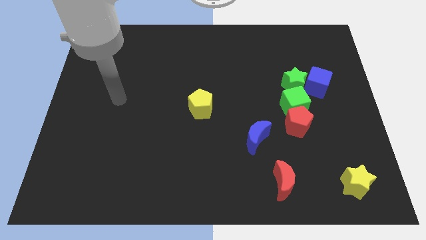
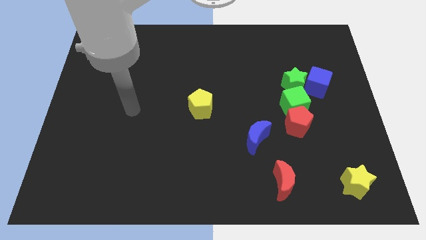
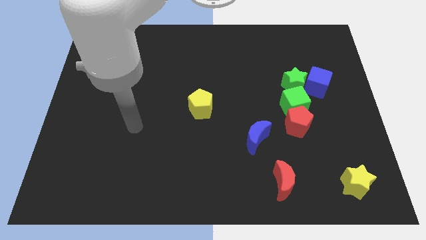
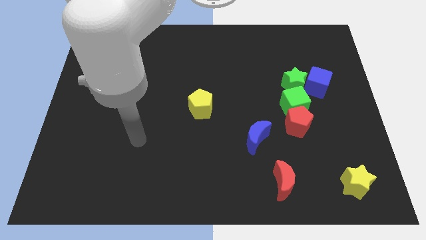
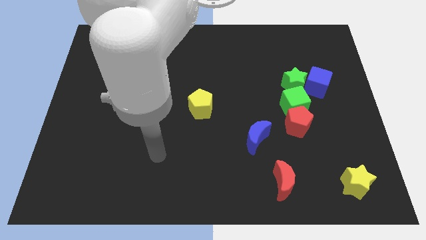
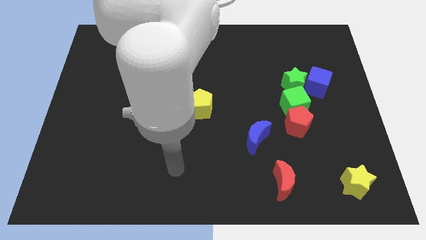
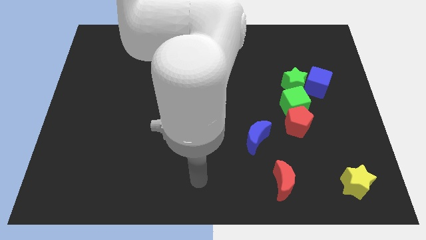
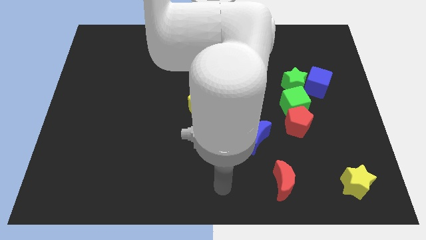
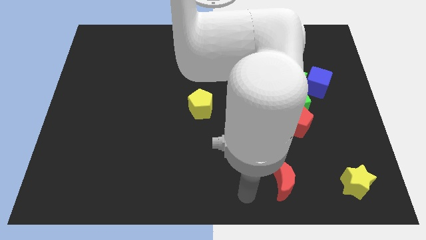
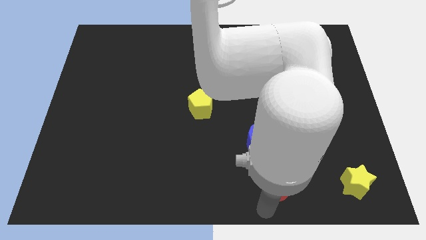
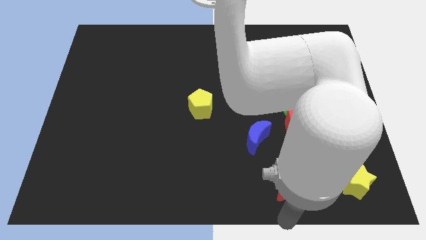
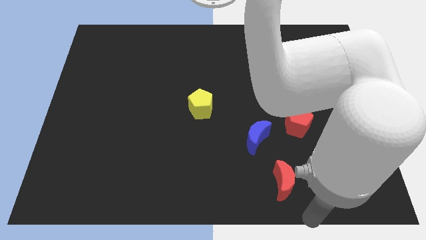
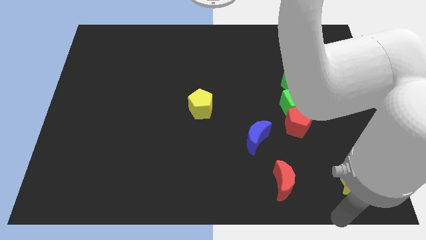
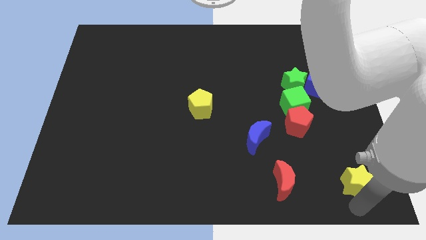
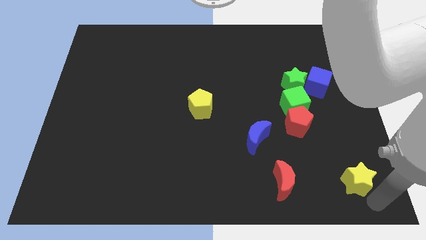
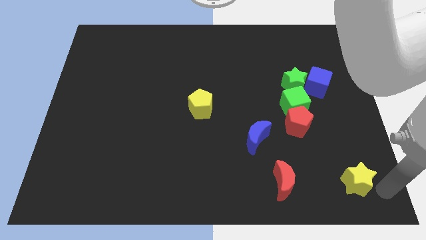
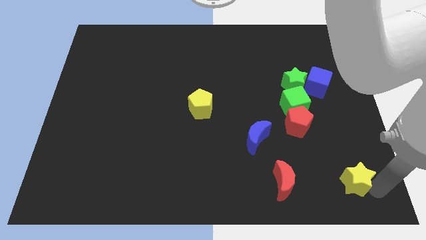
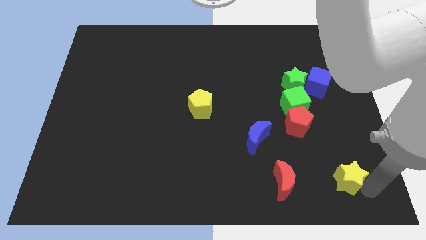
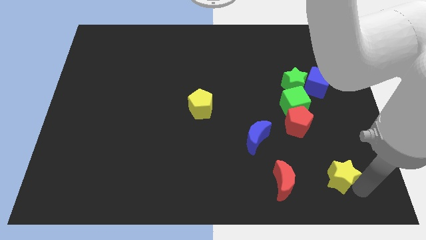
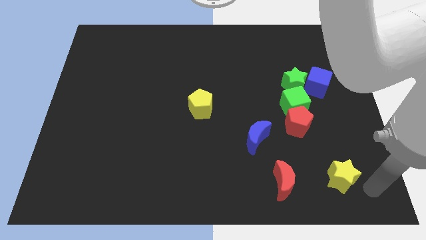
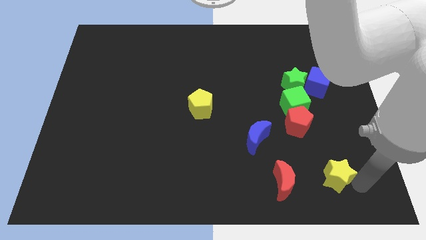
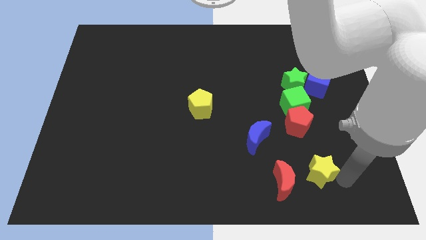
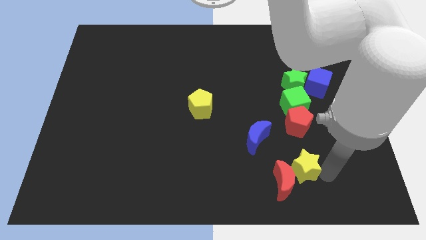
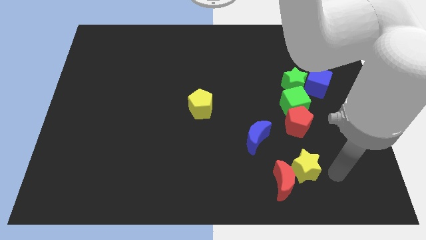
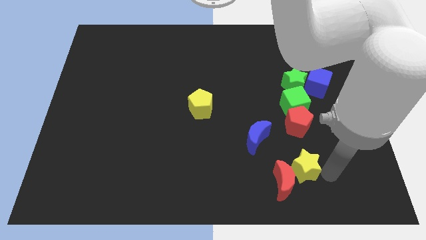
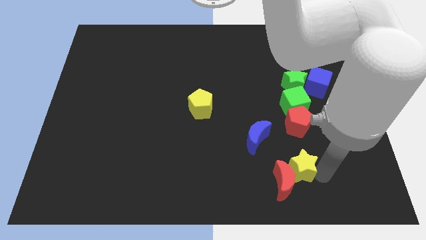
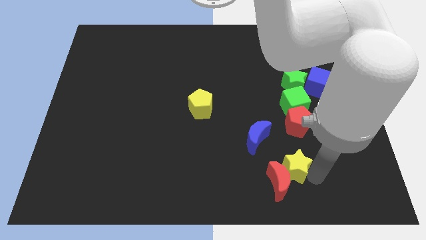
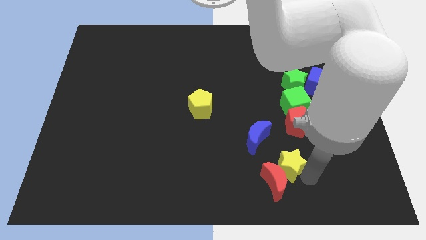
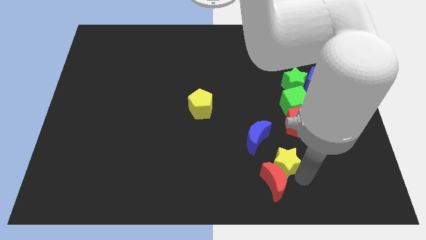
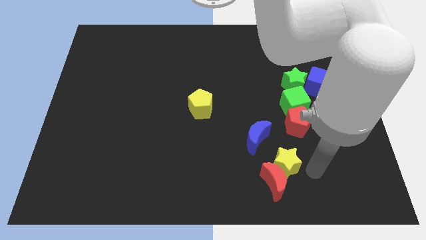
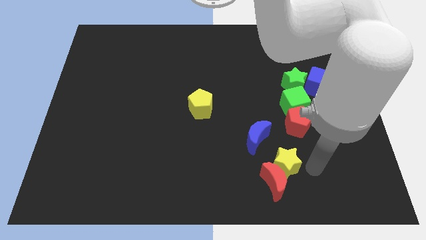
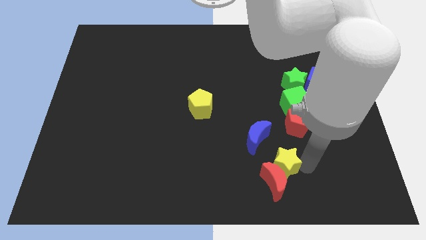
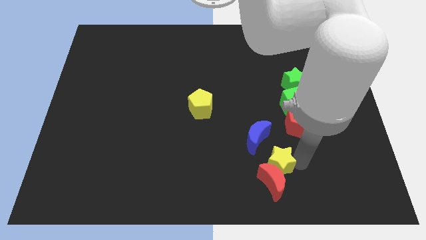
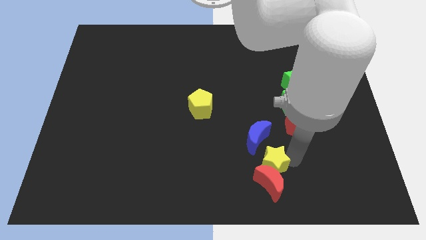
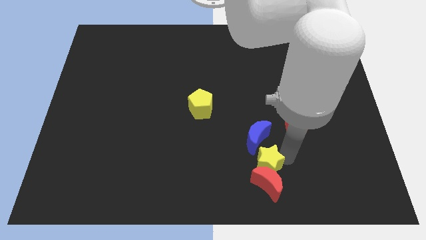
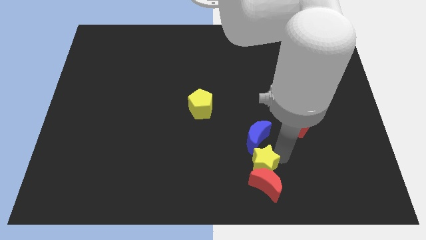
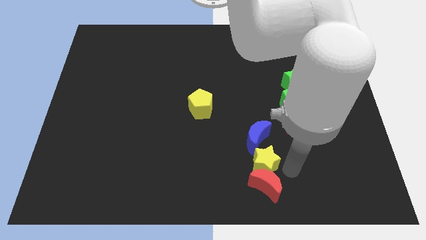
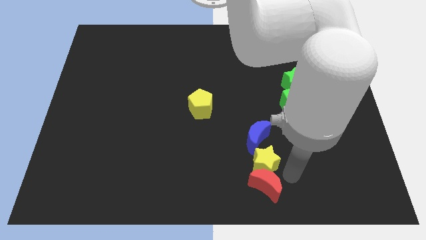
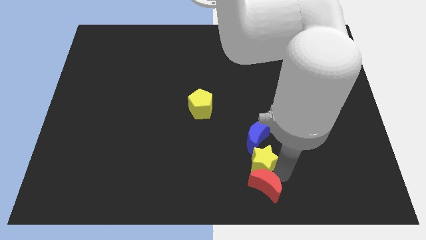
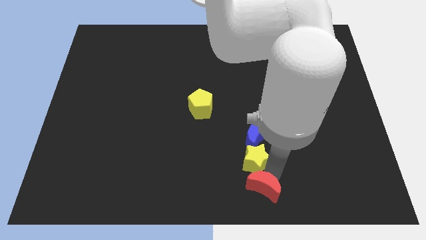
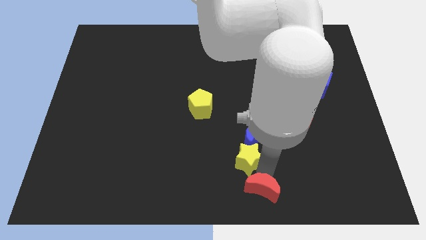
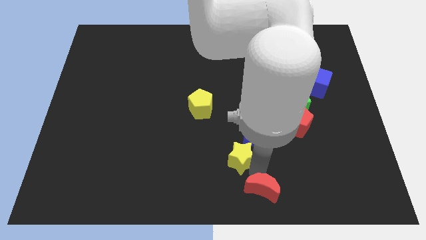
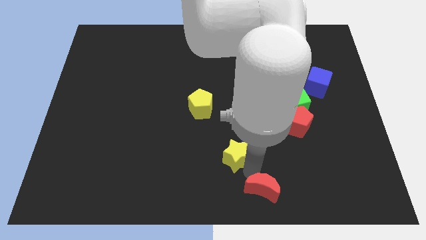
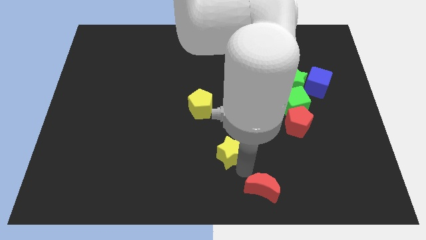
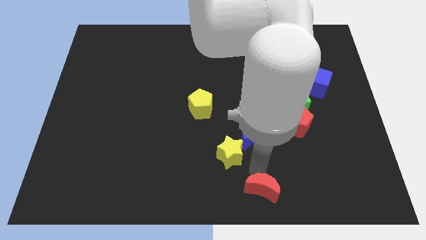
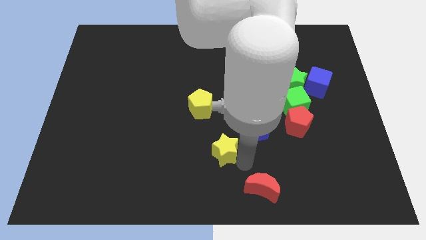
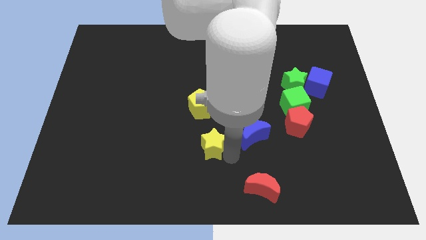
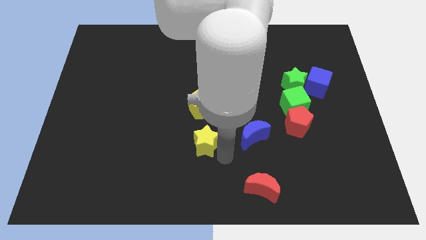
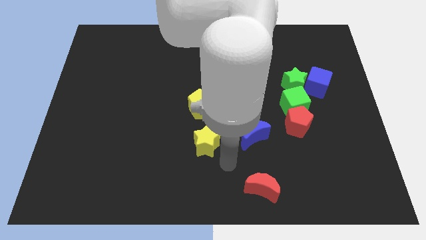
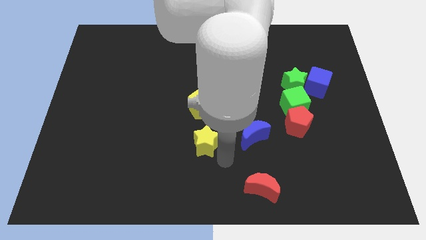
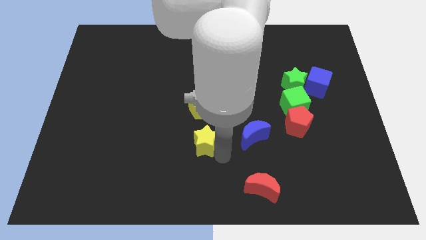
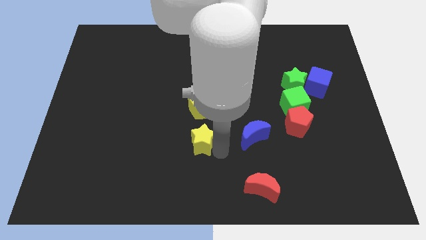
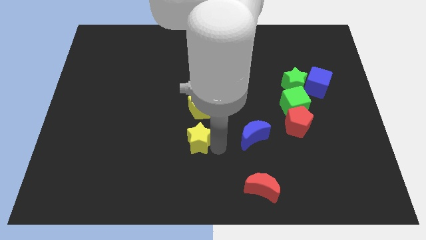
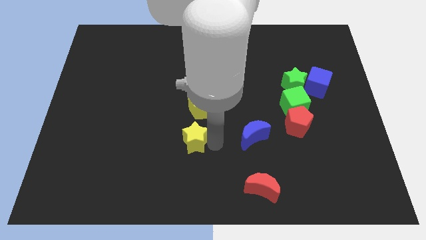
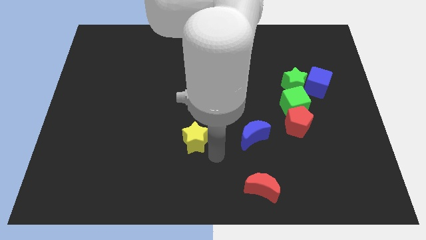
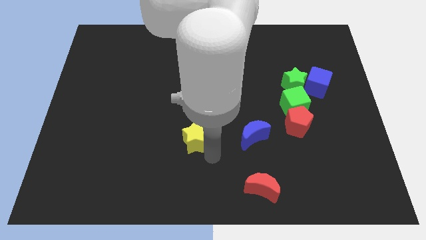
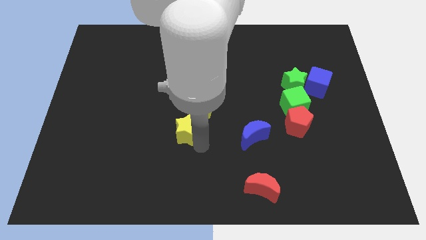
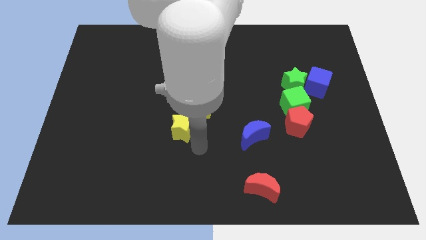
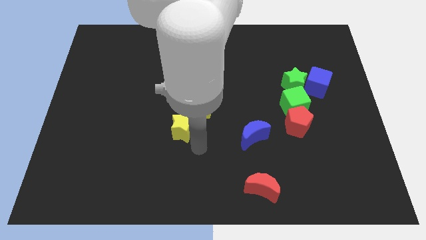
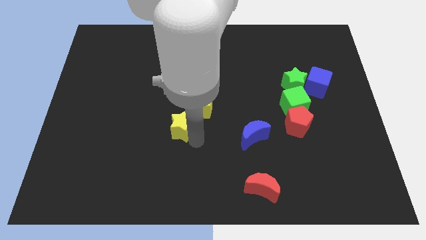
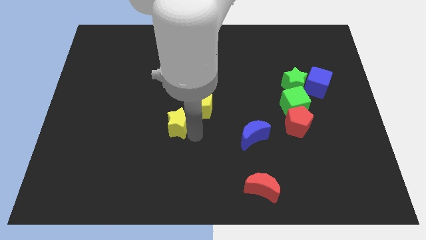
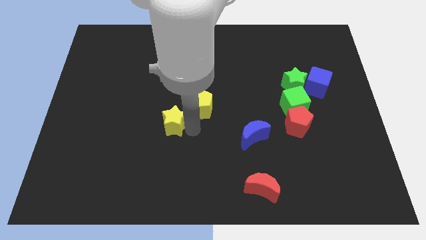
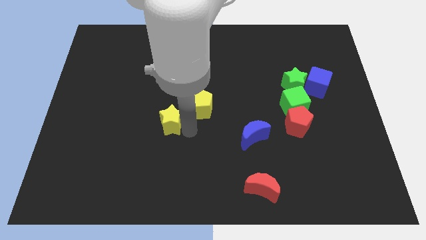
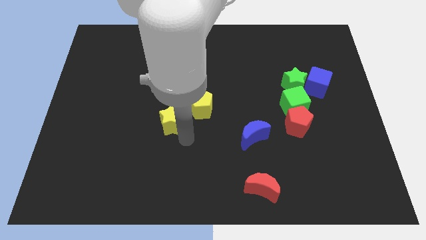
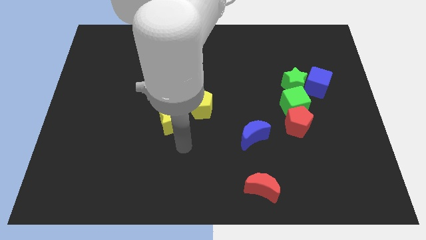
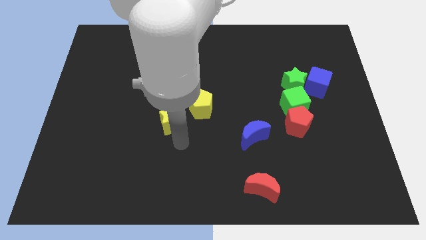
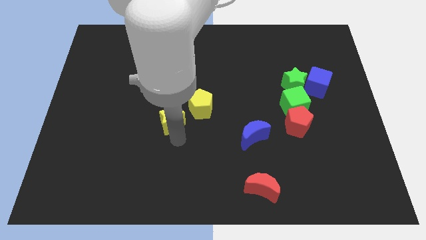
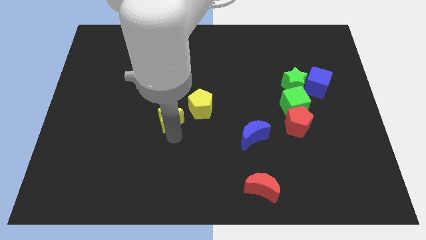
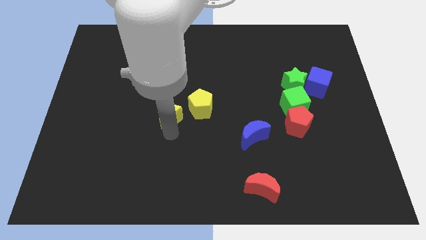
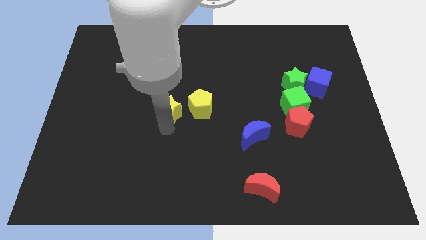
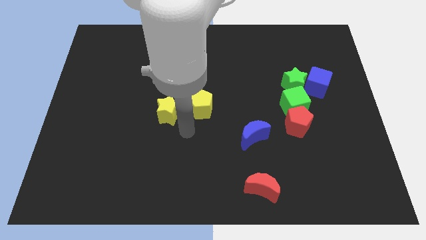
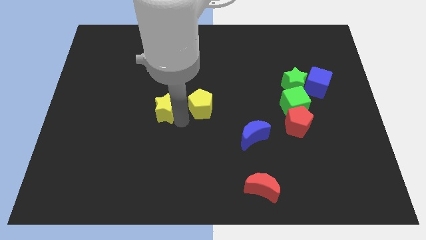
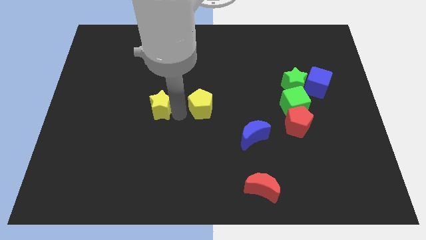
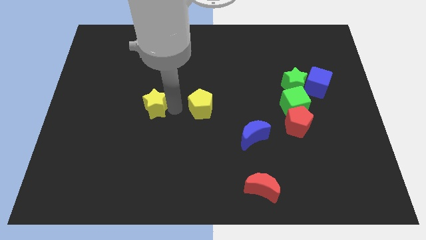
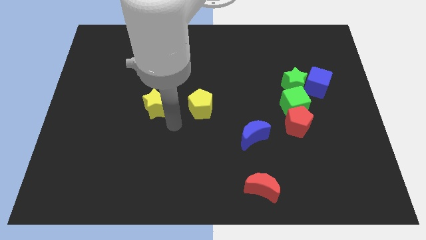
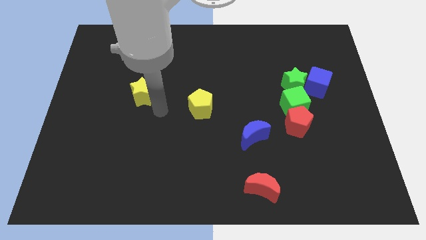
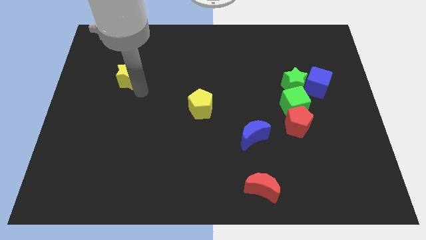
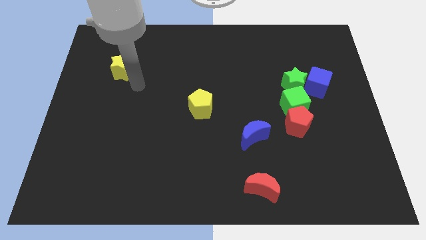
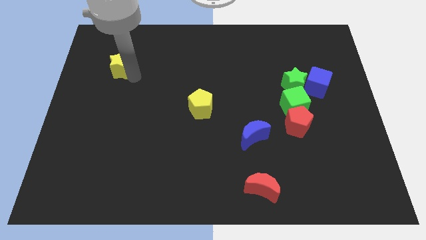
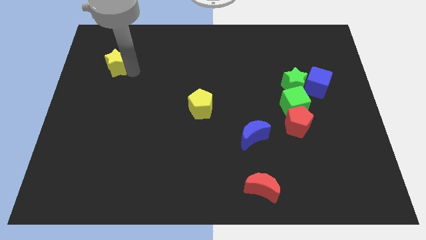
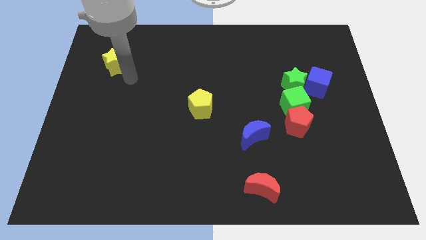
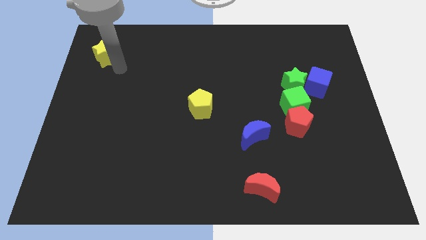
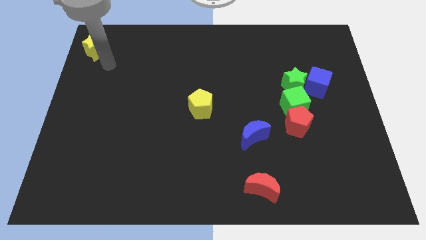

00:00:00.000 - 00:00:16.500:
put the yellow star to the top left
